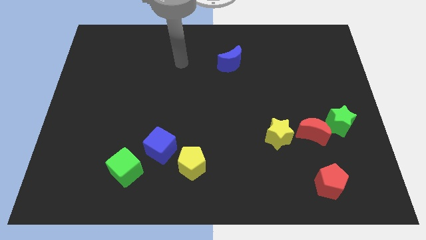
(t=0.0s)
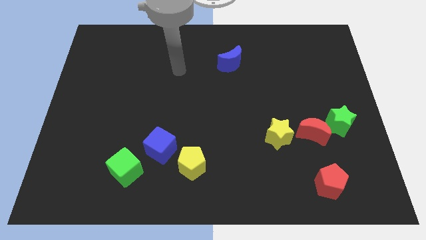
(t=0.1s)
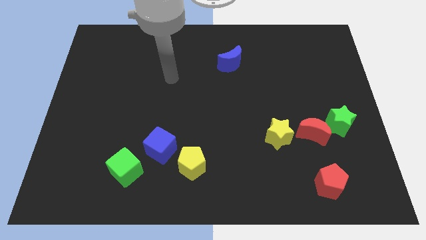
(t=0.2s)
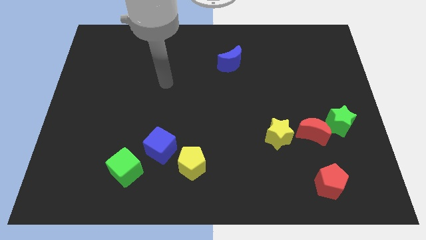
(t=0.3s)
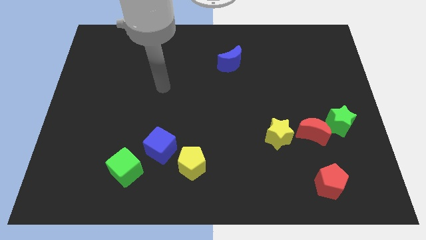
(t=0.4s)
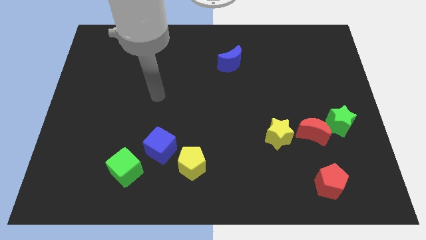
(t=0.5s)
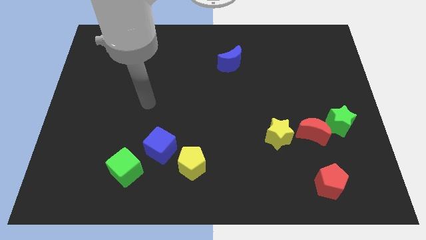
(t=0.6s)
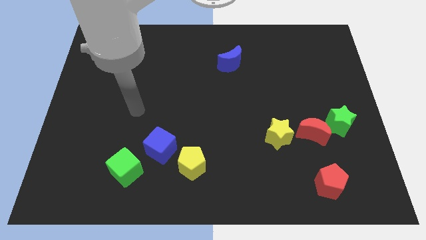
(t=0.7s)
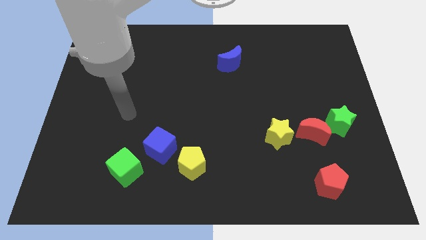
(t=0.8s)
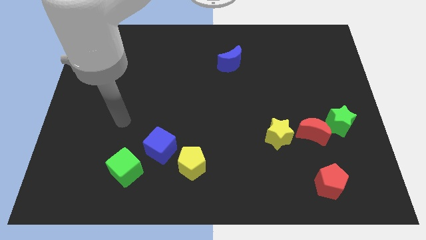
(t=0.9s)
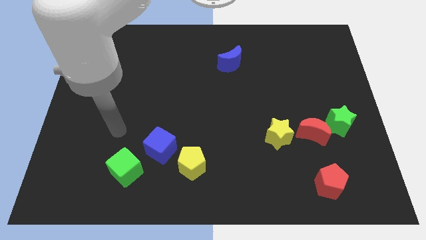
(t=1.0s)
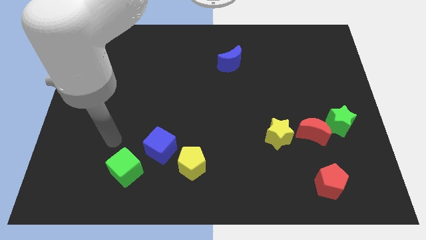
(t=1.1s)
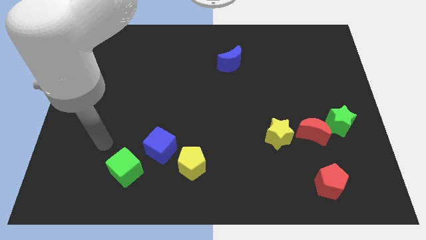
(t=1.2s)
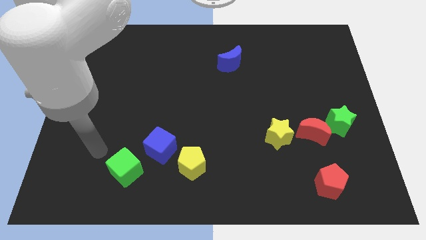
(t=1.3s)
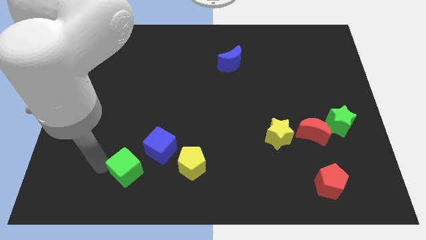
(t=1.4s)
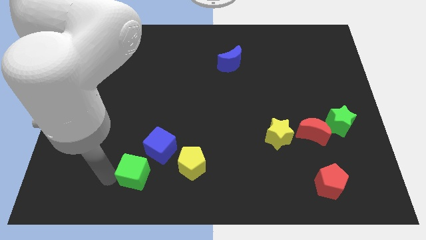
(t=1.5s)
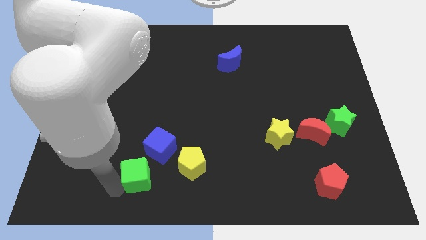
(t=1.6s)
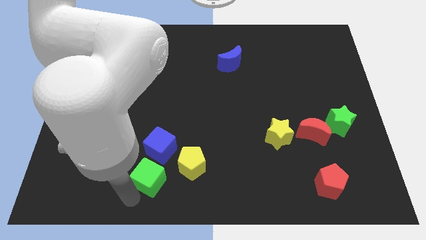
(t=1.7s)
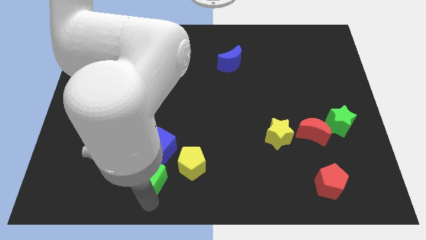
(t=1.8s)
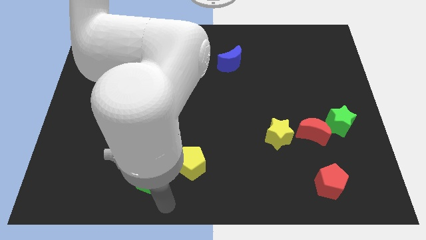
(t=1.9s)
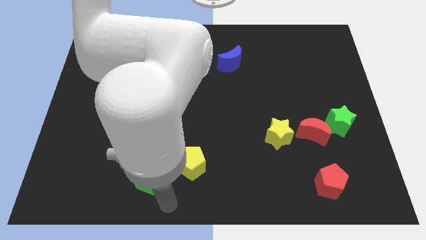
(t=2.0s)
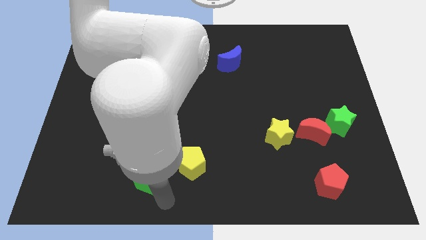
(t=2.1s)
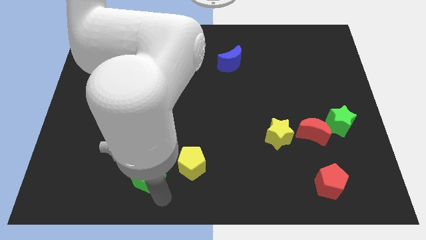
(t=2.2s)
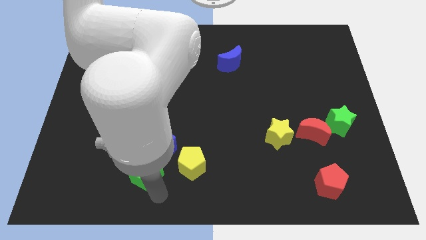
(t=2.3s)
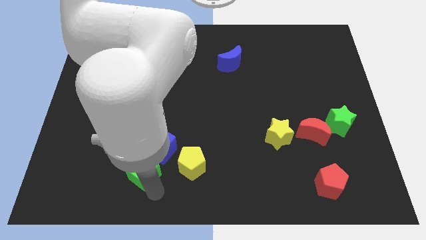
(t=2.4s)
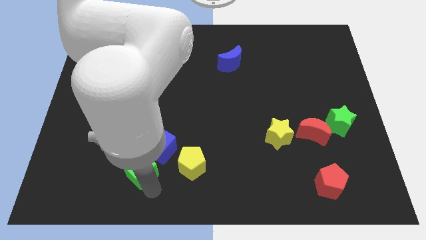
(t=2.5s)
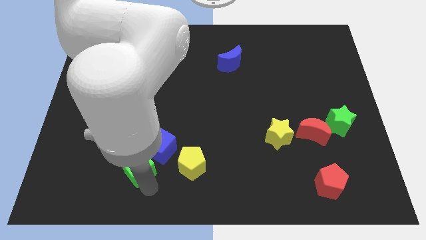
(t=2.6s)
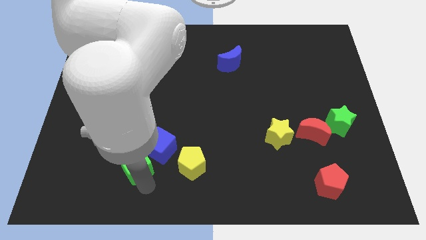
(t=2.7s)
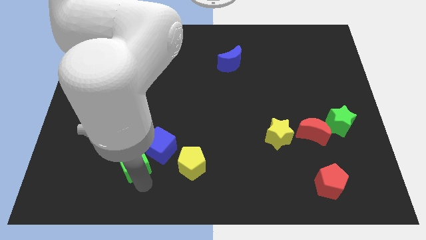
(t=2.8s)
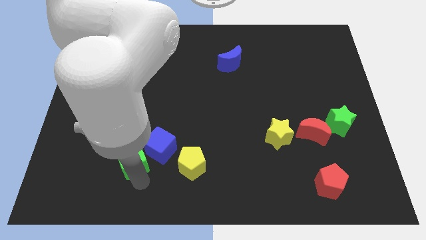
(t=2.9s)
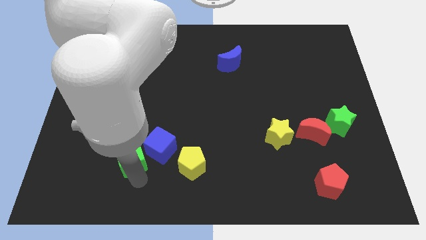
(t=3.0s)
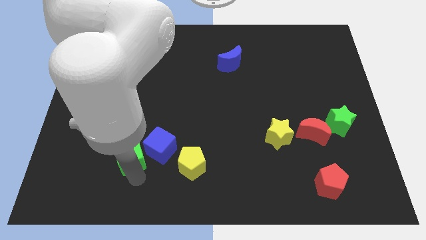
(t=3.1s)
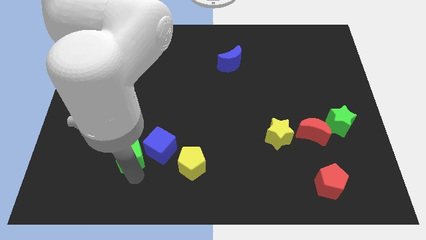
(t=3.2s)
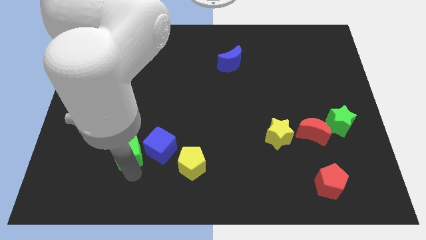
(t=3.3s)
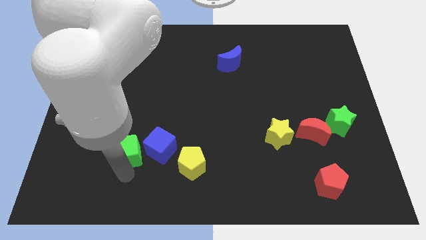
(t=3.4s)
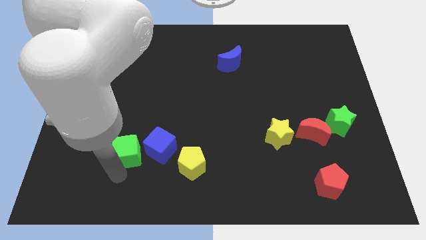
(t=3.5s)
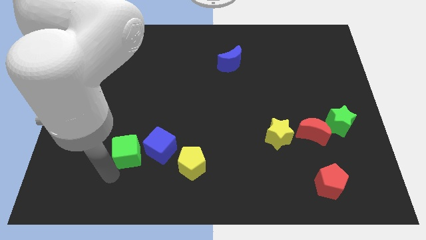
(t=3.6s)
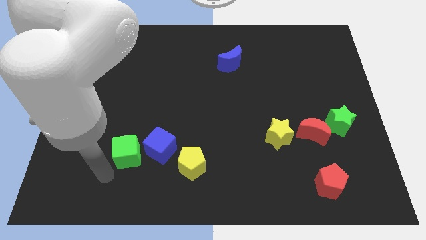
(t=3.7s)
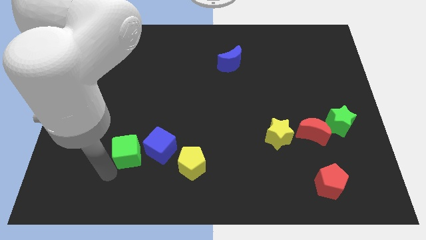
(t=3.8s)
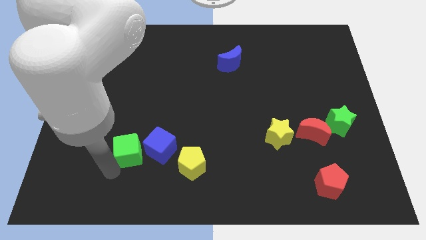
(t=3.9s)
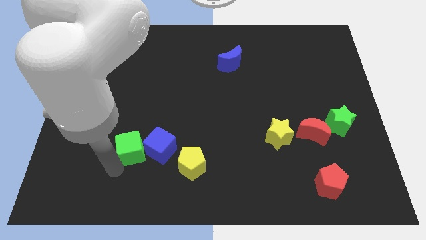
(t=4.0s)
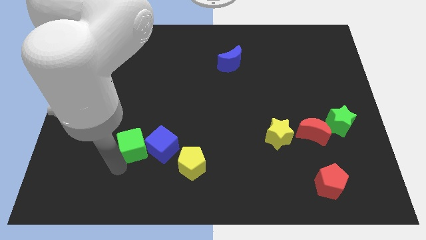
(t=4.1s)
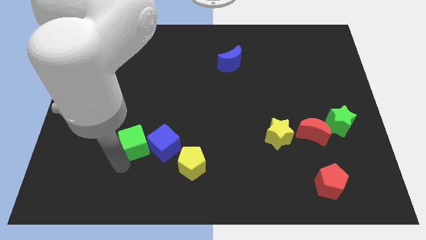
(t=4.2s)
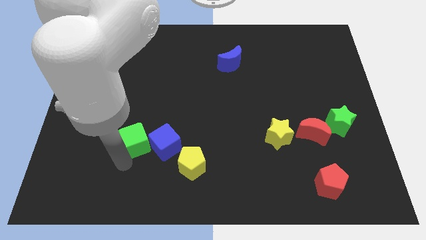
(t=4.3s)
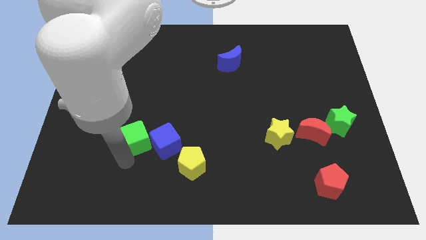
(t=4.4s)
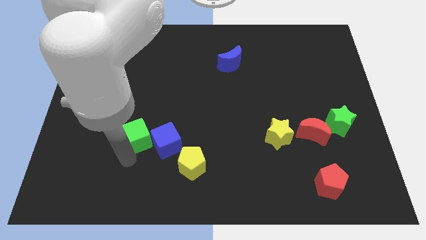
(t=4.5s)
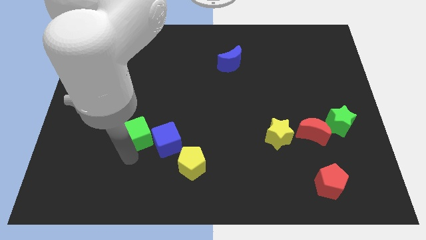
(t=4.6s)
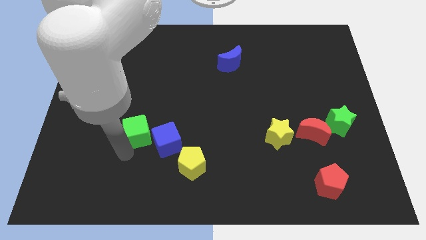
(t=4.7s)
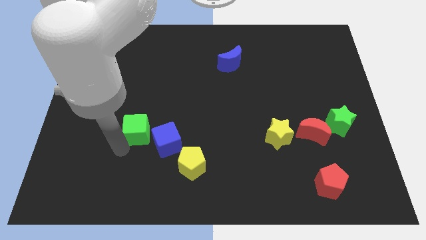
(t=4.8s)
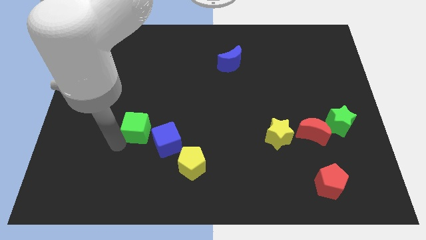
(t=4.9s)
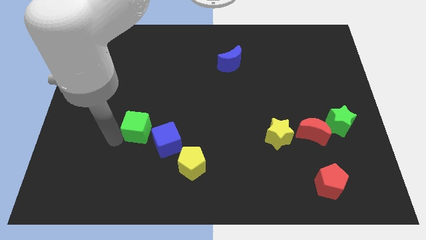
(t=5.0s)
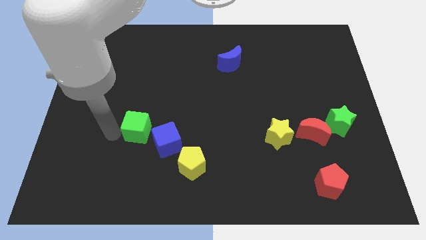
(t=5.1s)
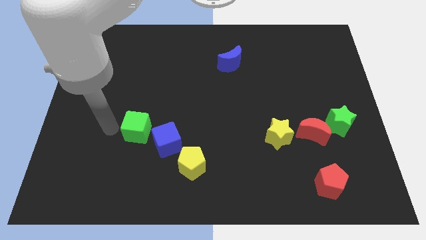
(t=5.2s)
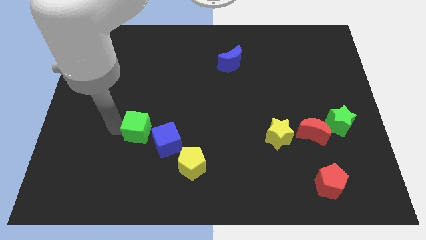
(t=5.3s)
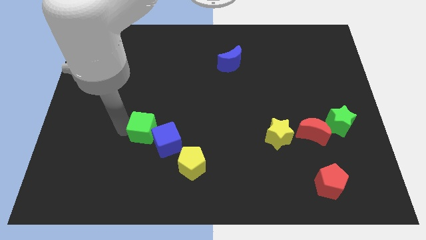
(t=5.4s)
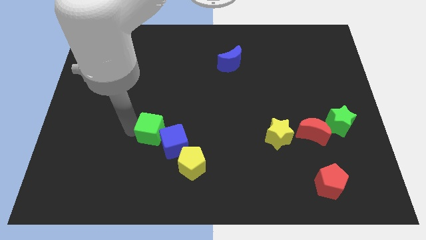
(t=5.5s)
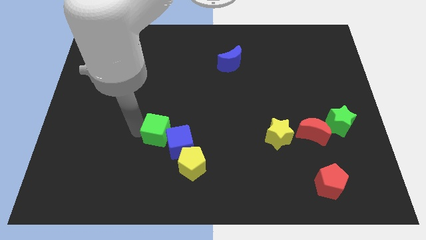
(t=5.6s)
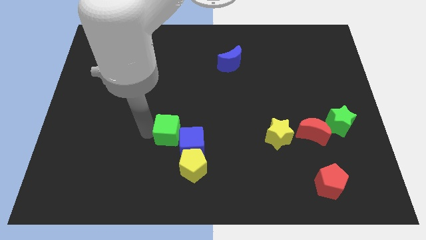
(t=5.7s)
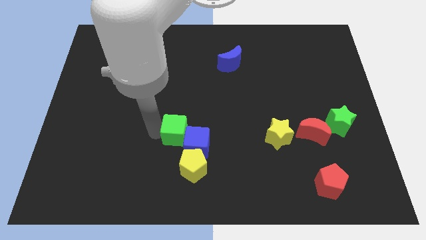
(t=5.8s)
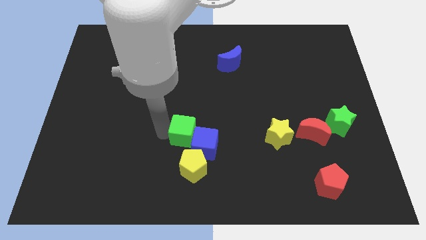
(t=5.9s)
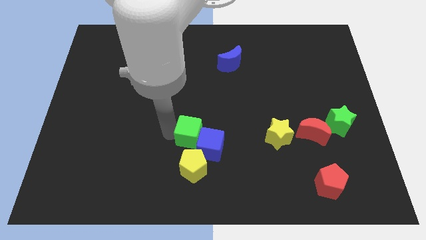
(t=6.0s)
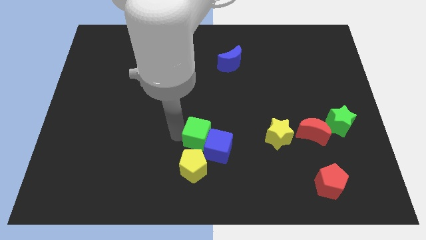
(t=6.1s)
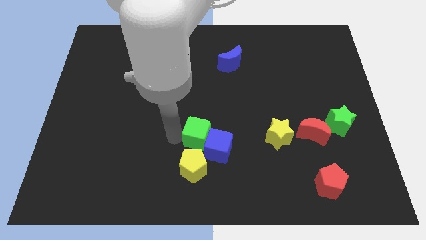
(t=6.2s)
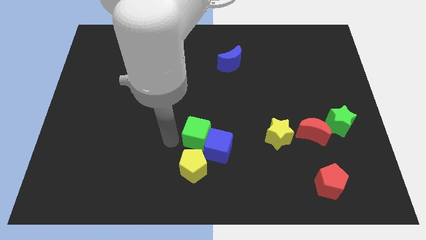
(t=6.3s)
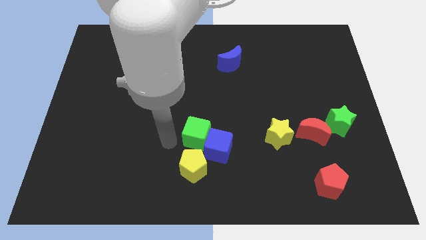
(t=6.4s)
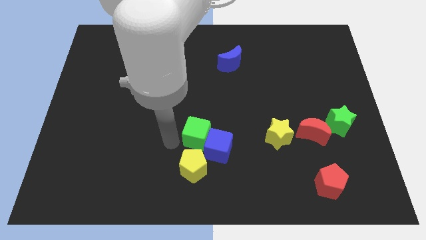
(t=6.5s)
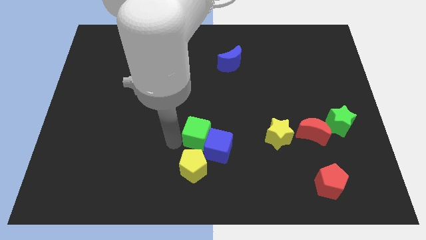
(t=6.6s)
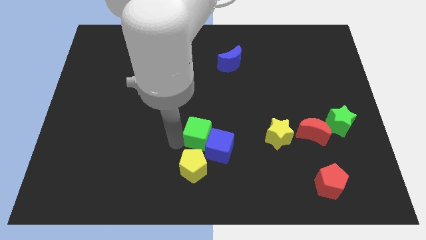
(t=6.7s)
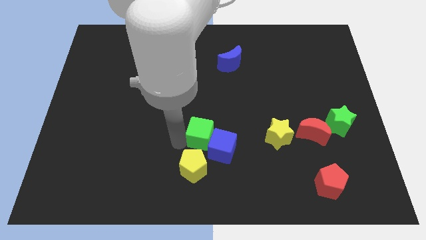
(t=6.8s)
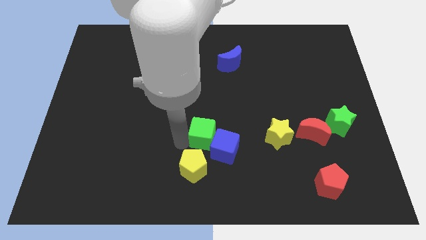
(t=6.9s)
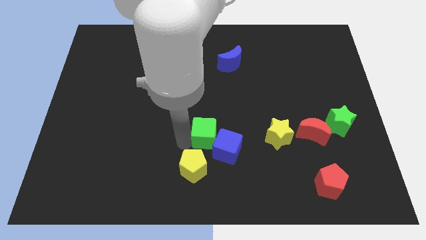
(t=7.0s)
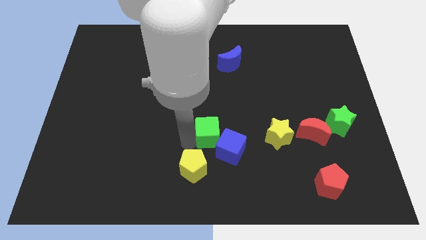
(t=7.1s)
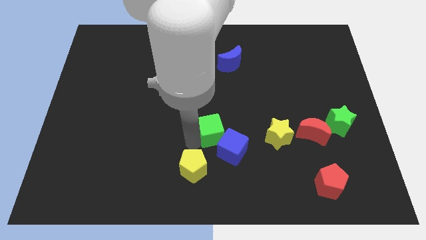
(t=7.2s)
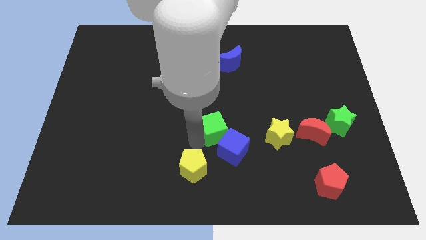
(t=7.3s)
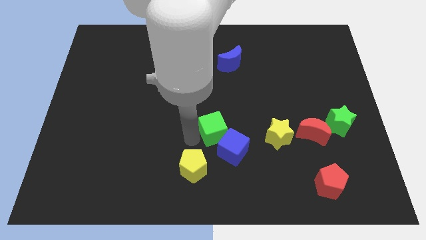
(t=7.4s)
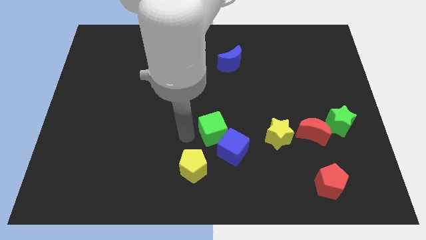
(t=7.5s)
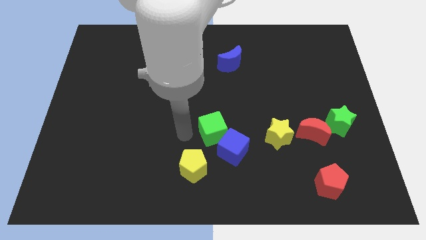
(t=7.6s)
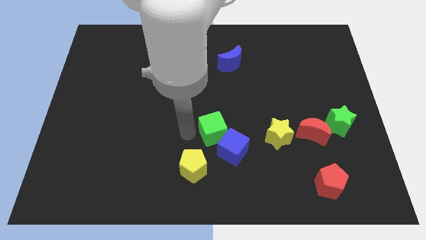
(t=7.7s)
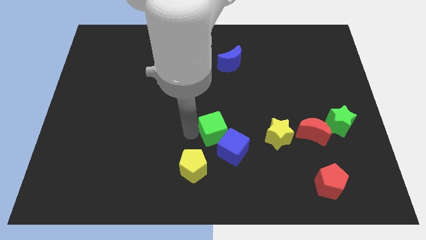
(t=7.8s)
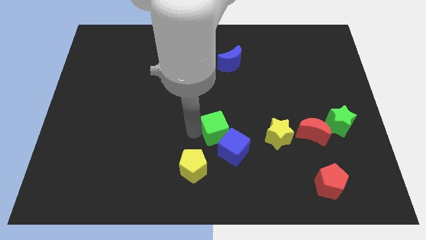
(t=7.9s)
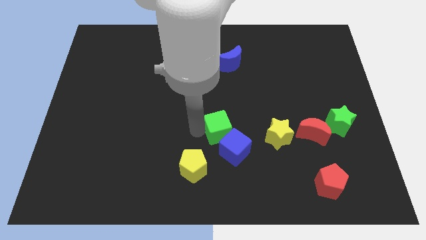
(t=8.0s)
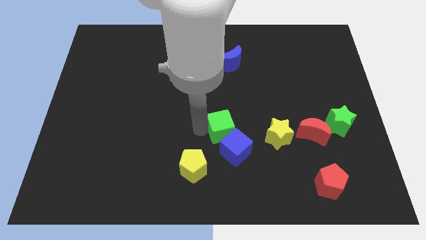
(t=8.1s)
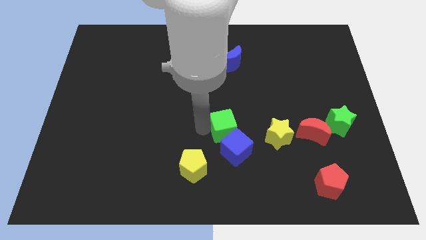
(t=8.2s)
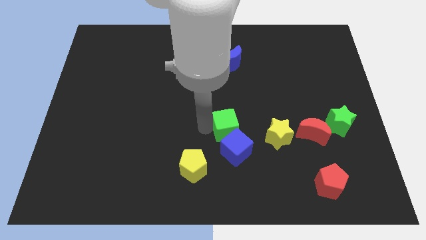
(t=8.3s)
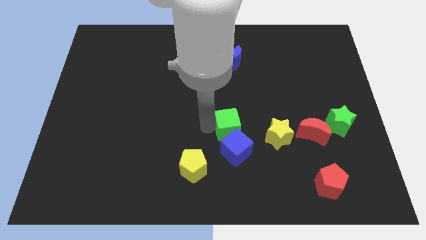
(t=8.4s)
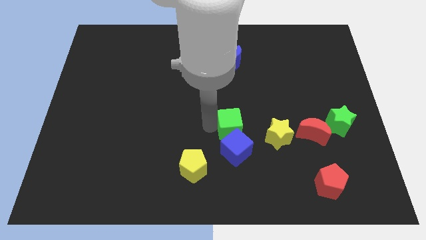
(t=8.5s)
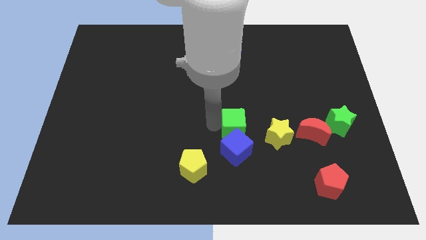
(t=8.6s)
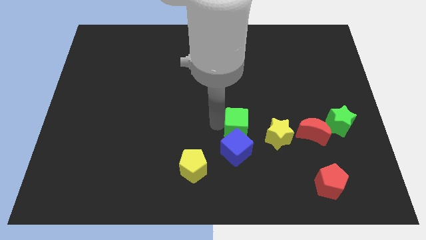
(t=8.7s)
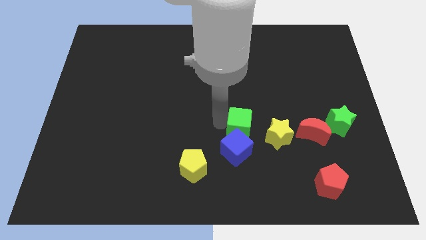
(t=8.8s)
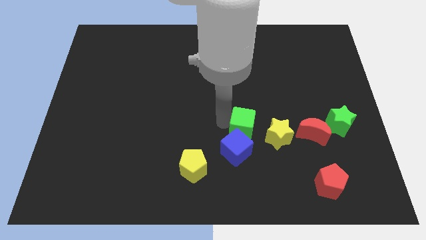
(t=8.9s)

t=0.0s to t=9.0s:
push the green cube to the left side of the red moon
